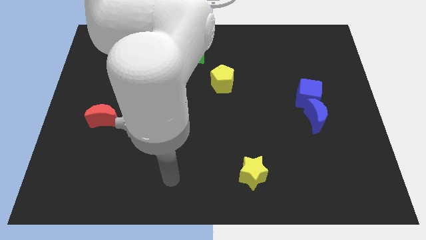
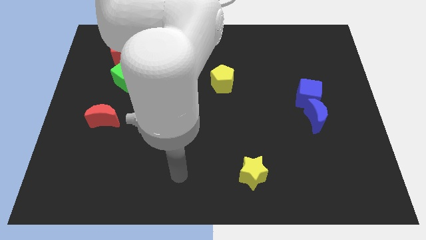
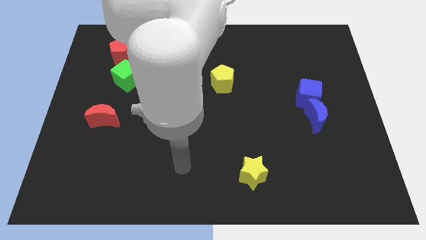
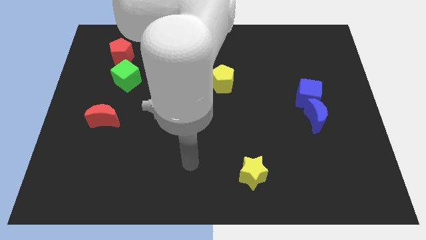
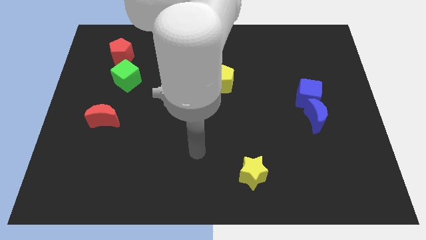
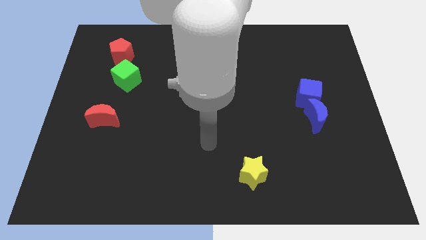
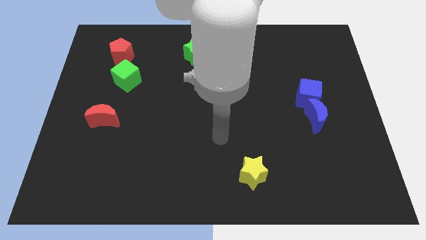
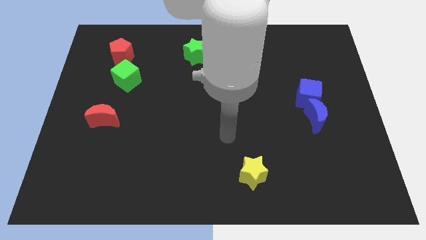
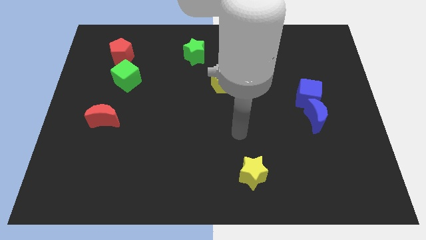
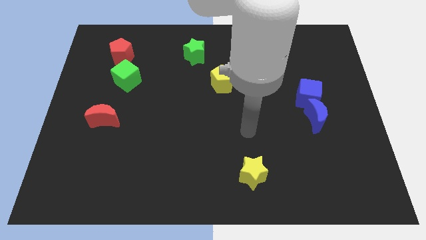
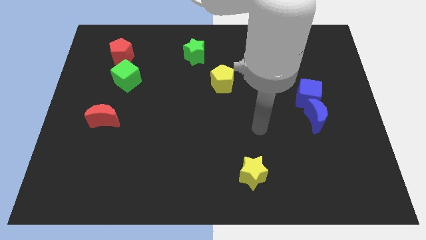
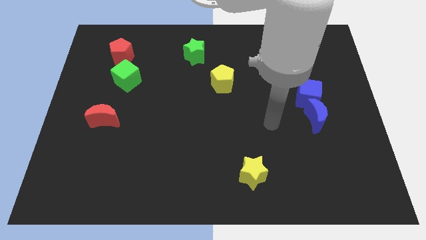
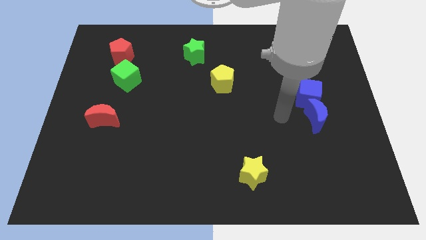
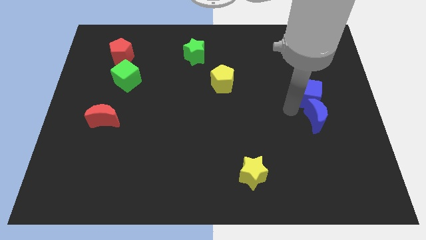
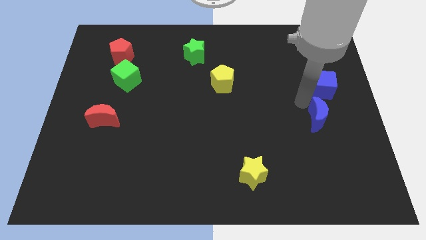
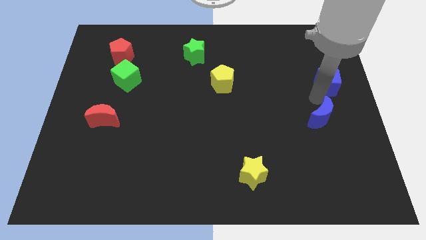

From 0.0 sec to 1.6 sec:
pull the blue moon apart from the blue cube

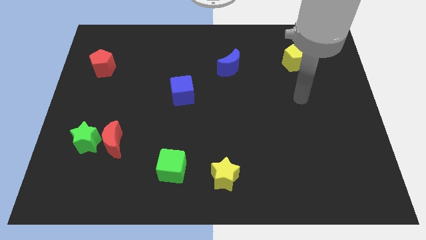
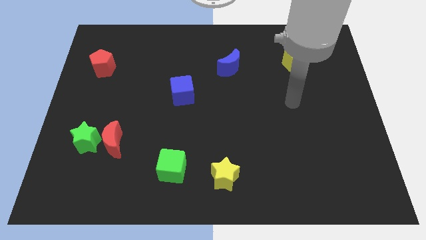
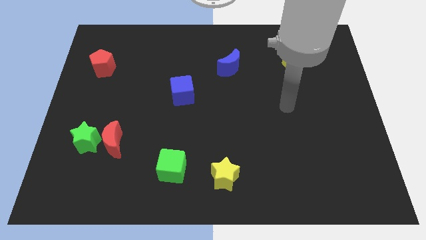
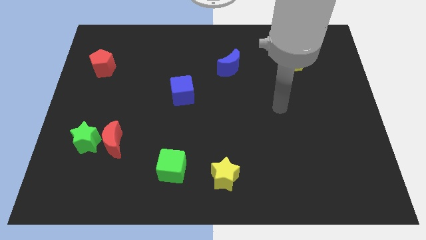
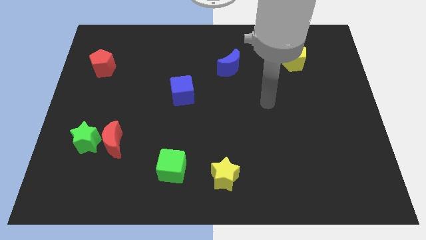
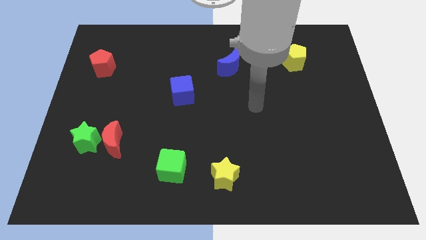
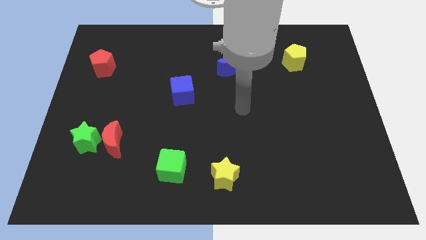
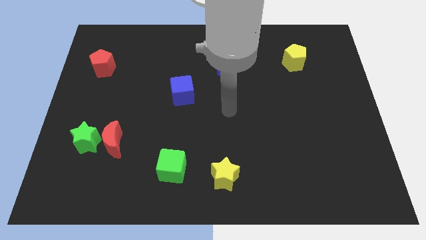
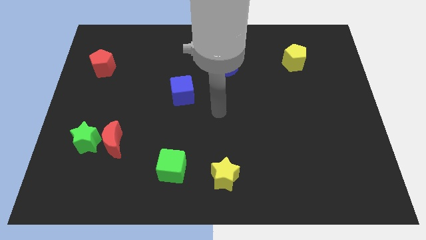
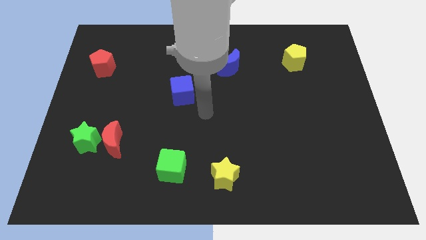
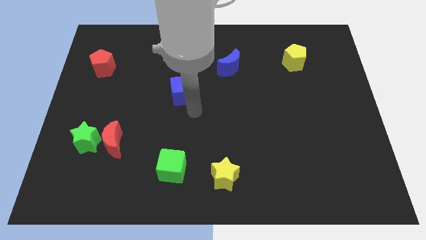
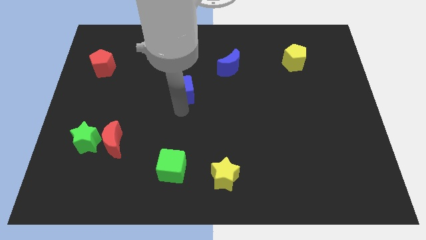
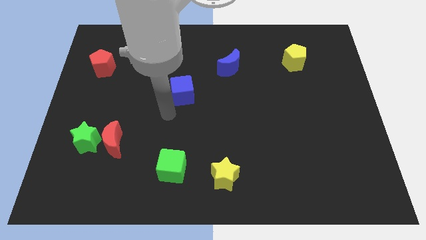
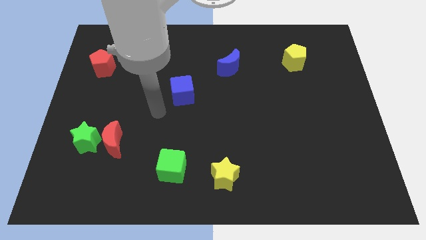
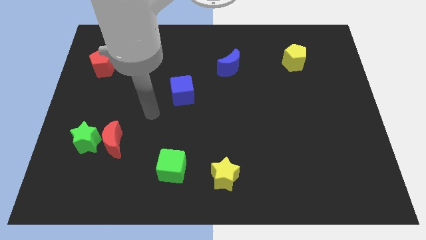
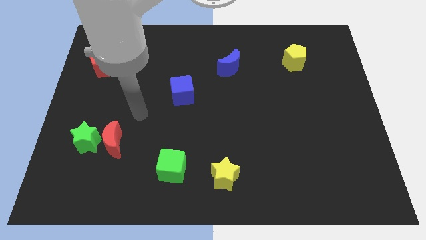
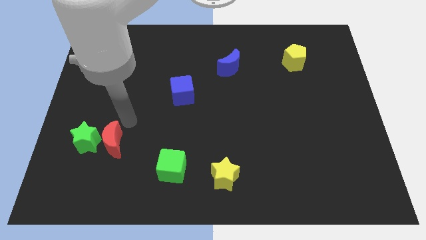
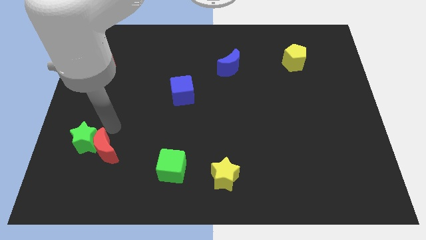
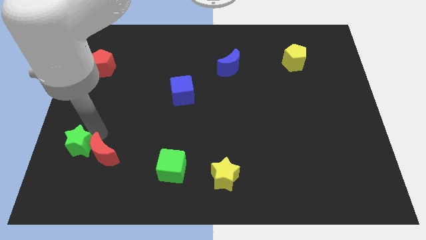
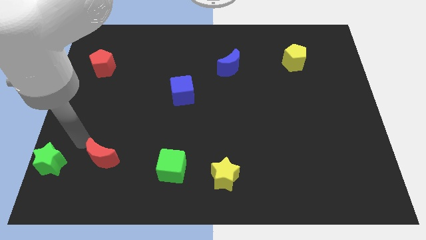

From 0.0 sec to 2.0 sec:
pull the red moon apart from the green star

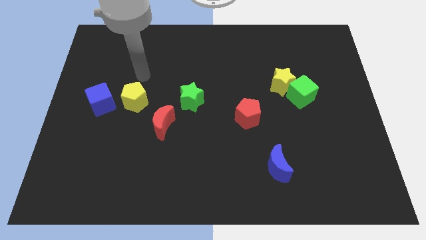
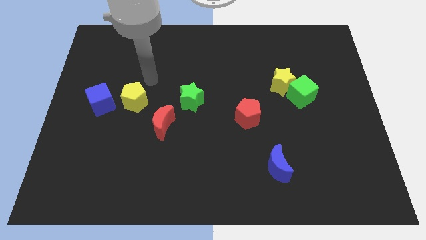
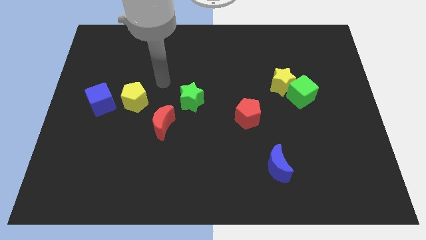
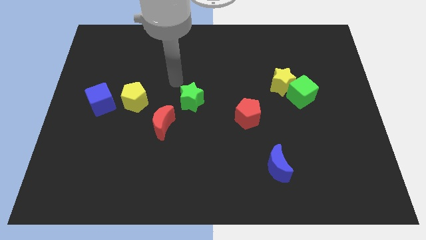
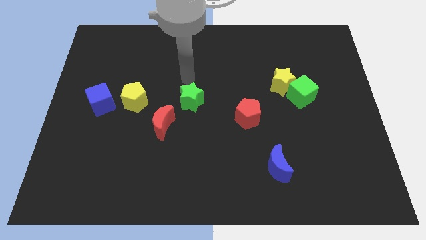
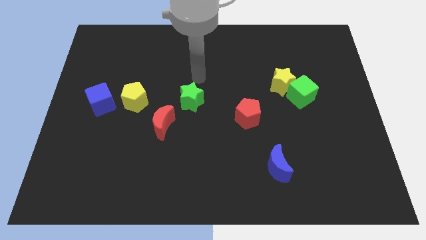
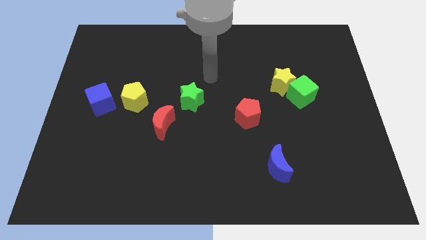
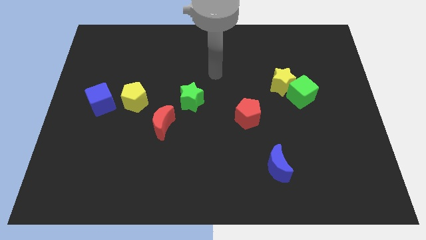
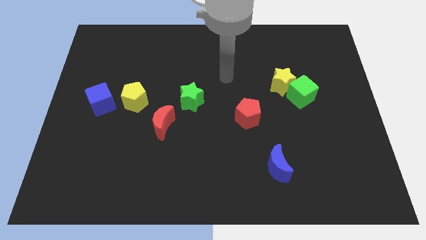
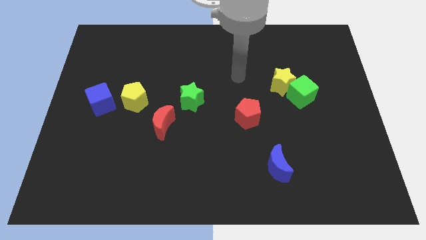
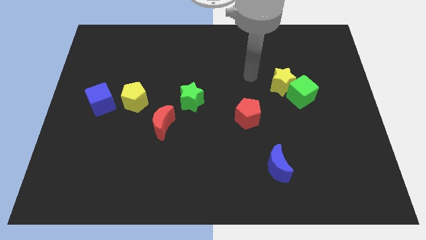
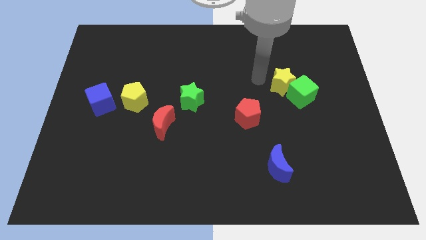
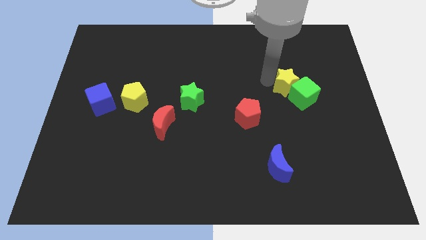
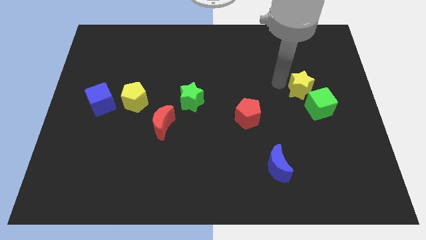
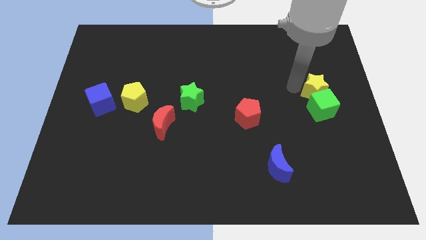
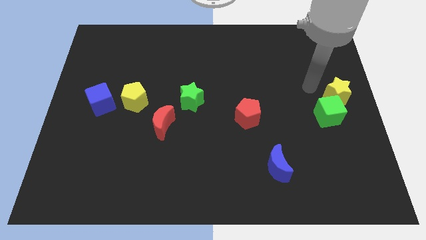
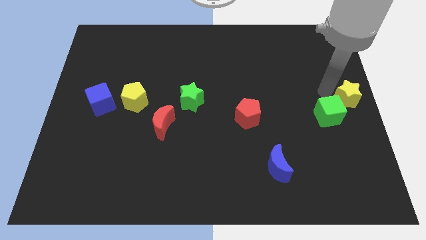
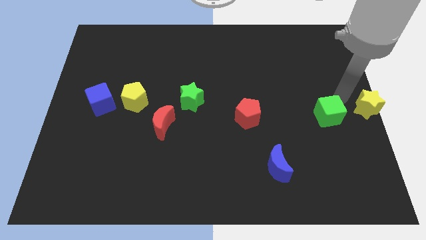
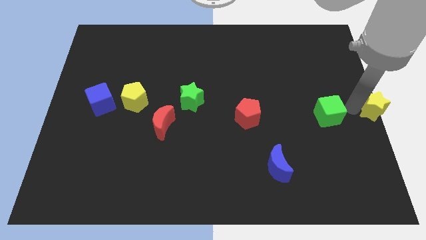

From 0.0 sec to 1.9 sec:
separate the green cube from the yellow star

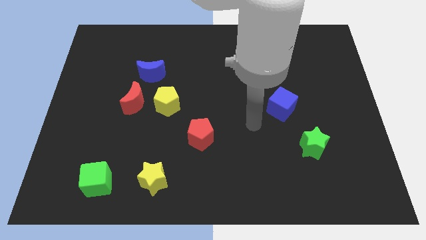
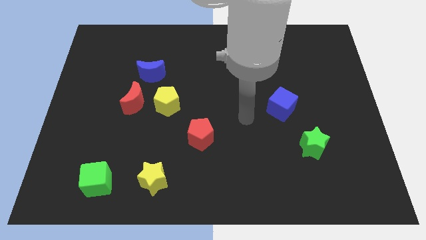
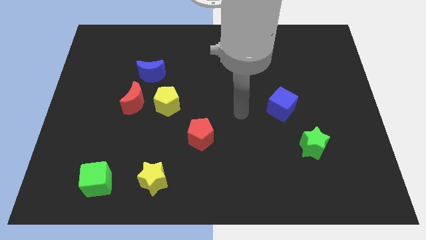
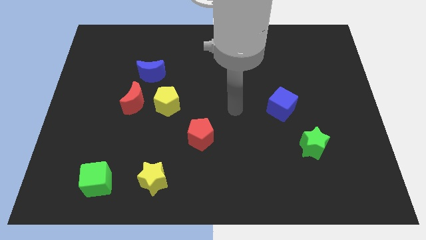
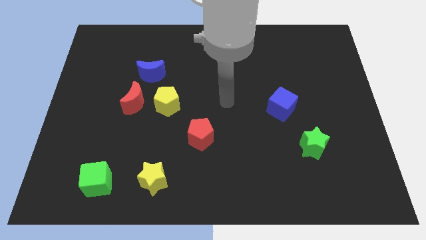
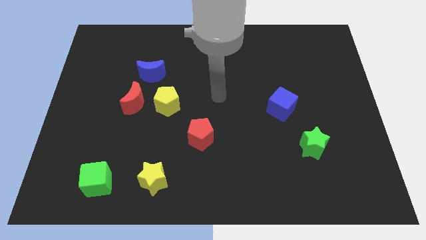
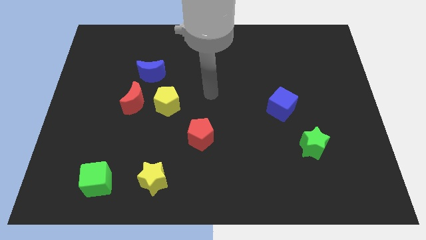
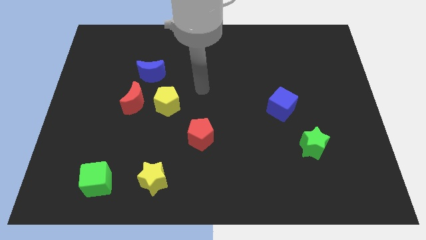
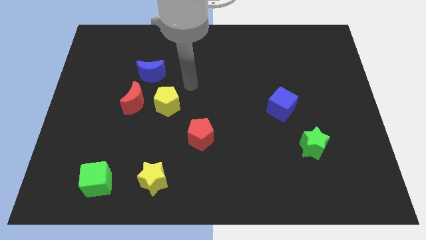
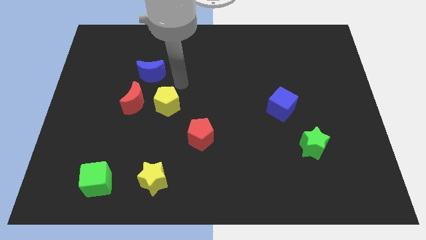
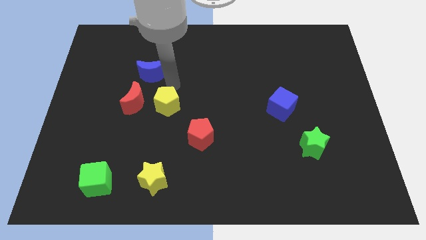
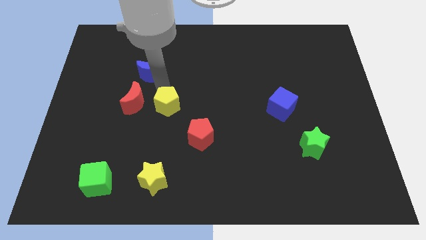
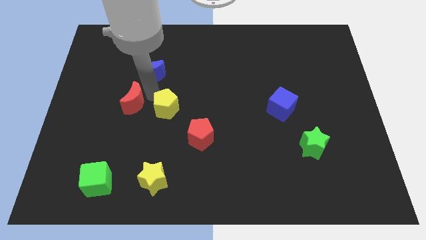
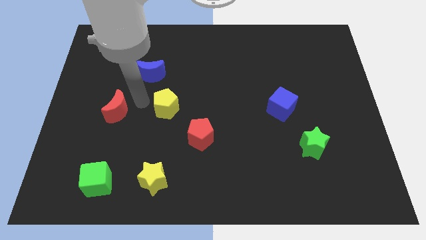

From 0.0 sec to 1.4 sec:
pull the yellow pentagon apart from the red moon

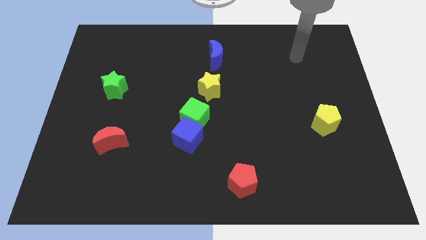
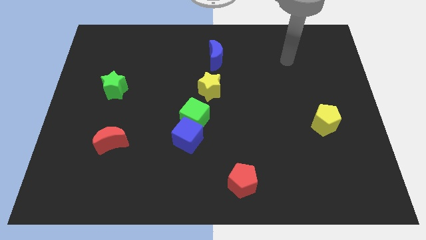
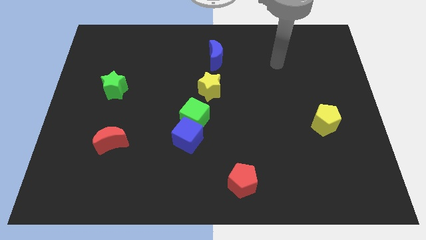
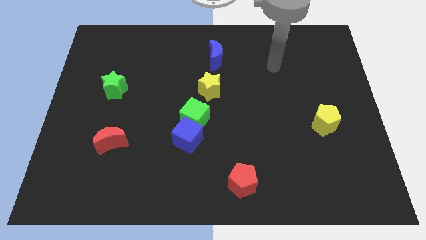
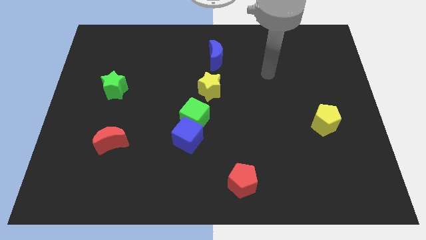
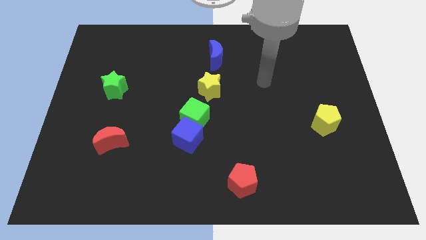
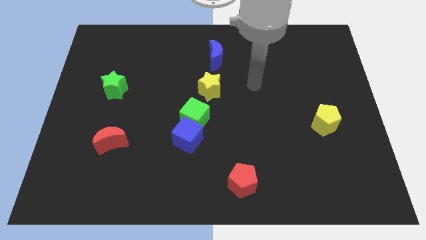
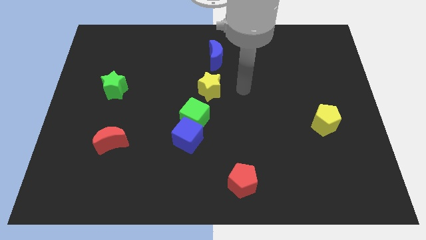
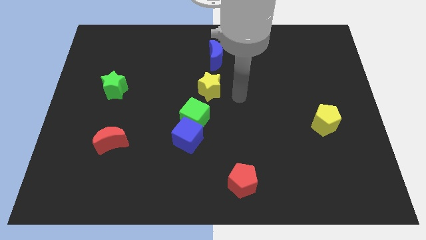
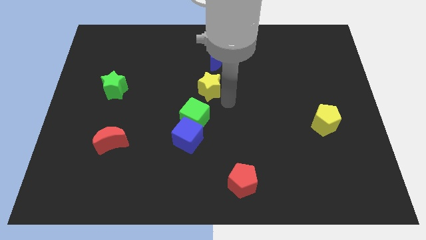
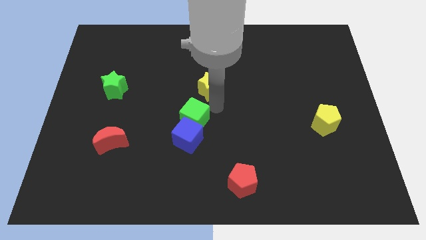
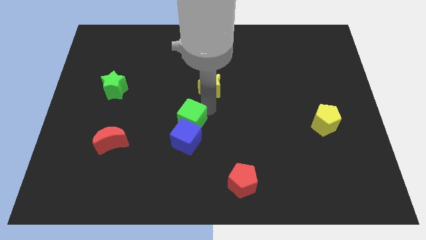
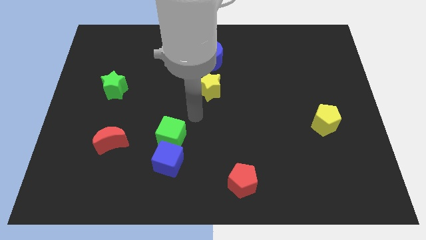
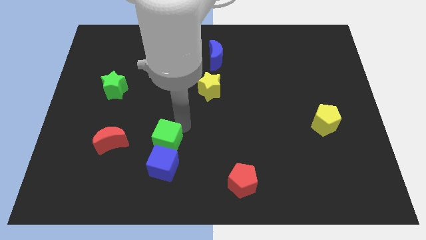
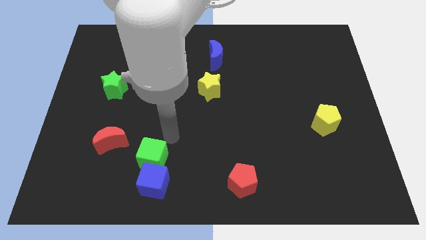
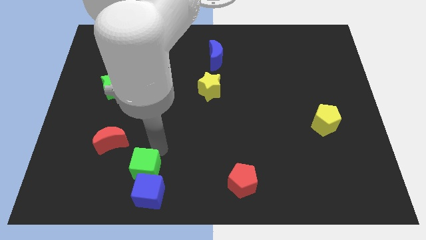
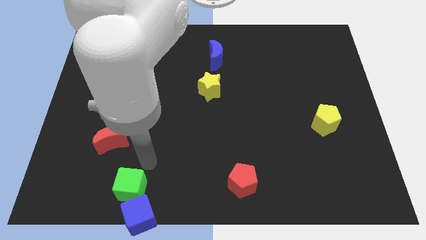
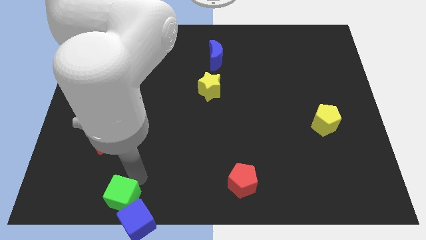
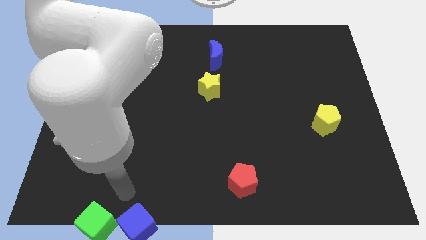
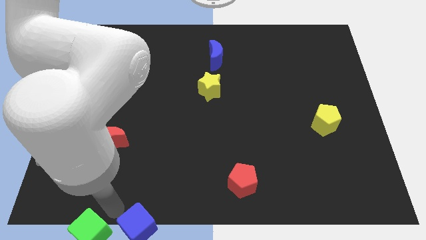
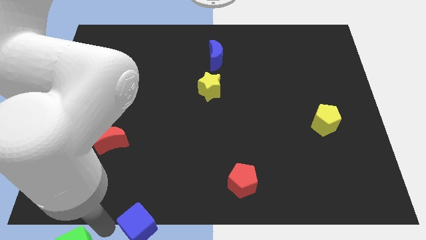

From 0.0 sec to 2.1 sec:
separate the blue cube from the green cube

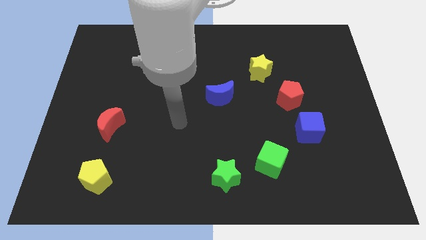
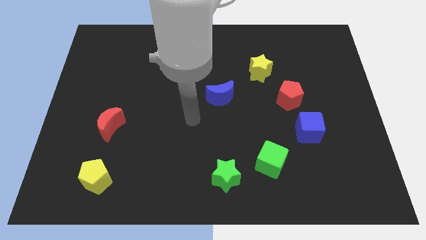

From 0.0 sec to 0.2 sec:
separate the red pentagon from the blue cube
